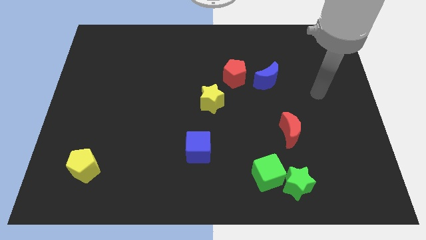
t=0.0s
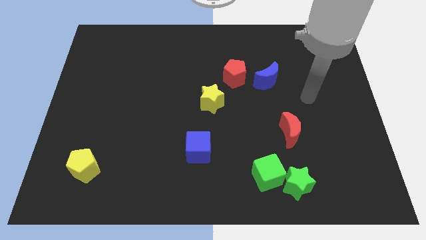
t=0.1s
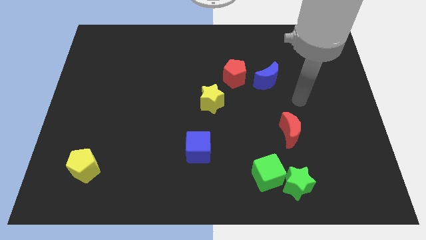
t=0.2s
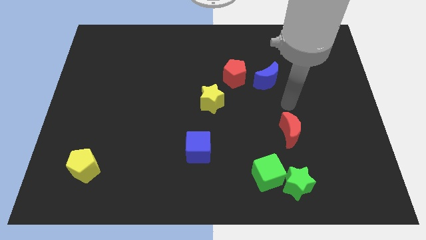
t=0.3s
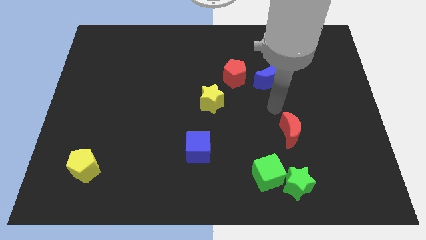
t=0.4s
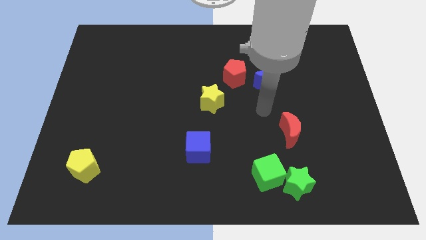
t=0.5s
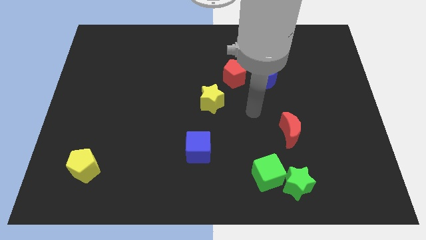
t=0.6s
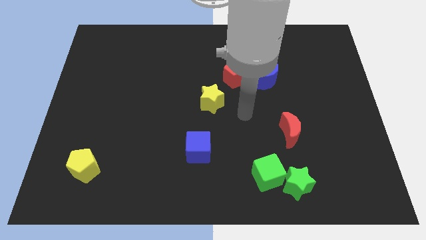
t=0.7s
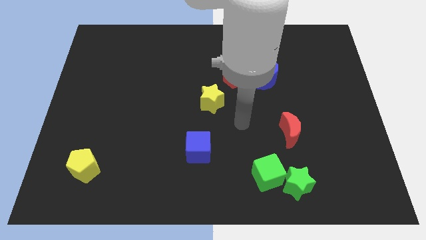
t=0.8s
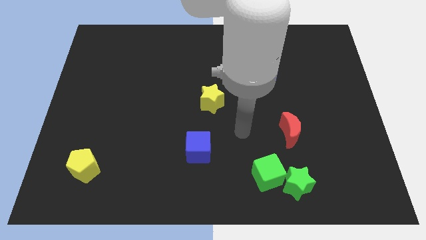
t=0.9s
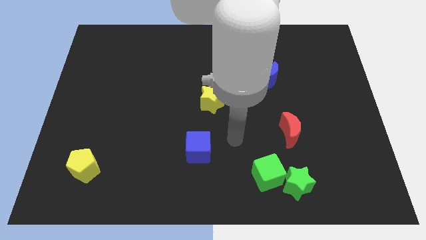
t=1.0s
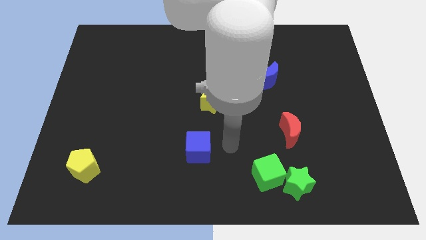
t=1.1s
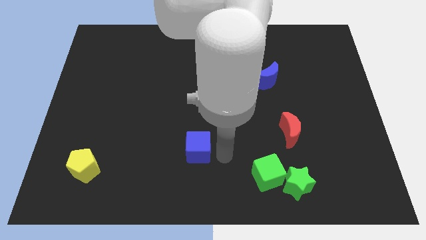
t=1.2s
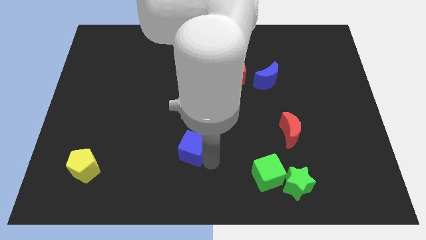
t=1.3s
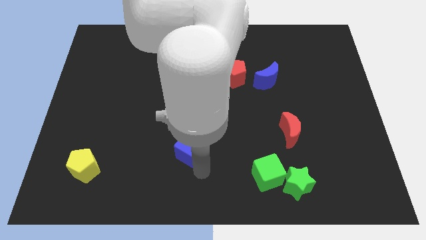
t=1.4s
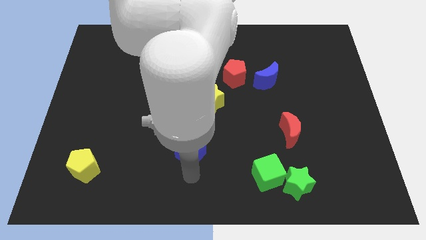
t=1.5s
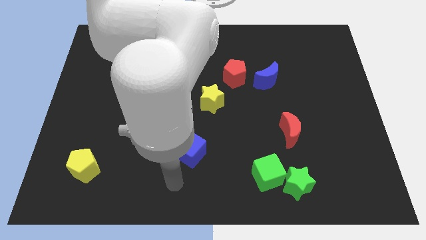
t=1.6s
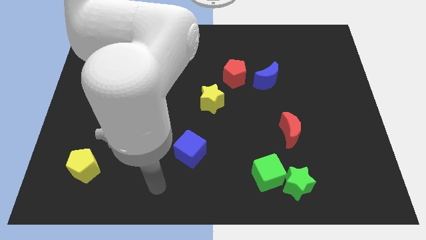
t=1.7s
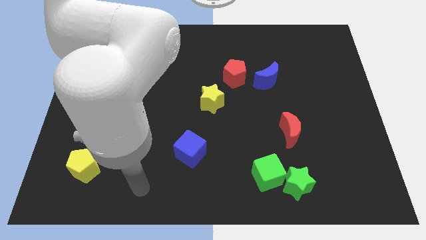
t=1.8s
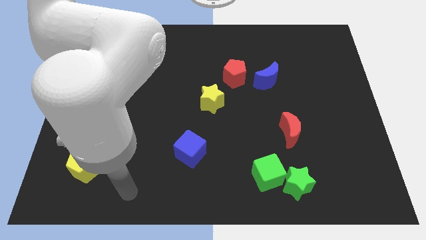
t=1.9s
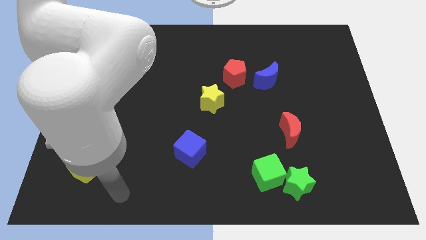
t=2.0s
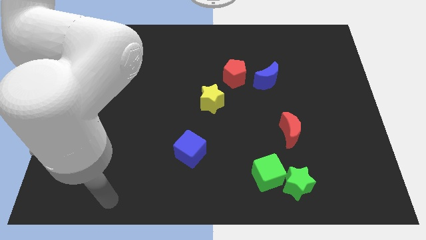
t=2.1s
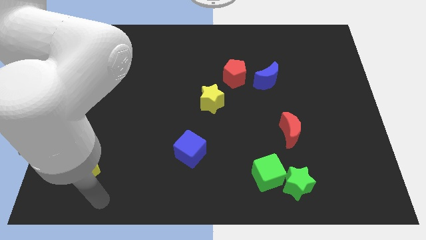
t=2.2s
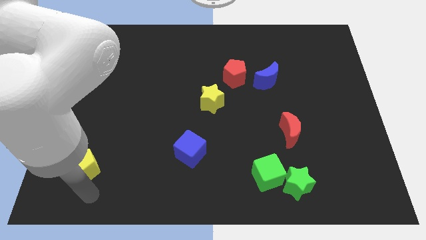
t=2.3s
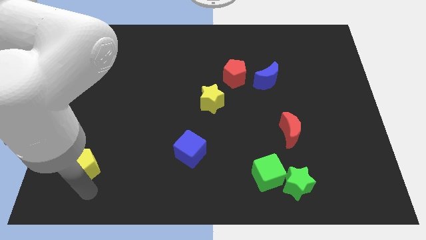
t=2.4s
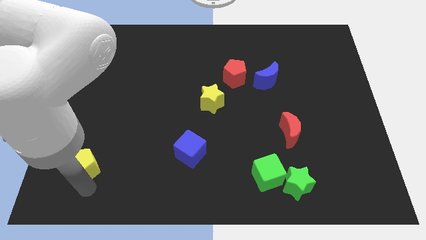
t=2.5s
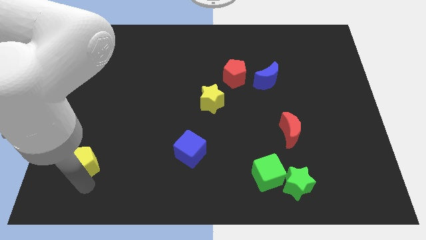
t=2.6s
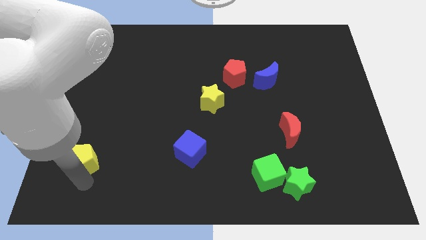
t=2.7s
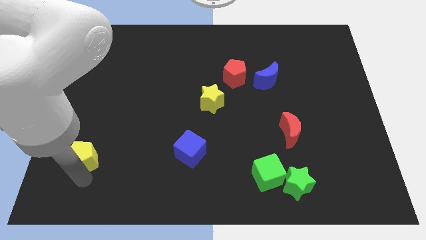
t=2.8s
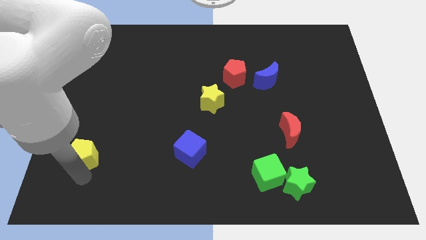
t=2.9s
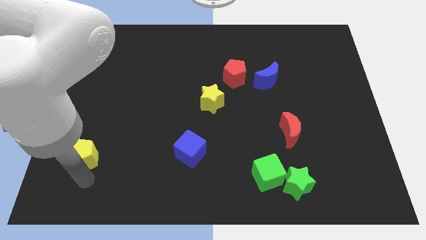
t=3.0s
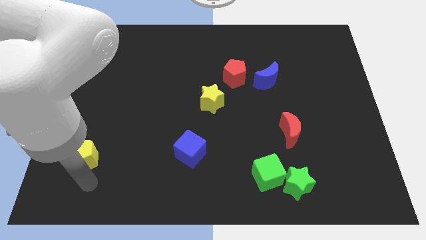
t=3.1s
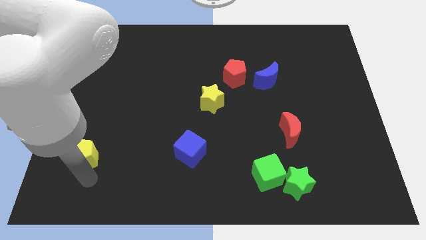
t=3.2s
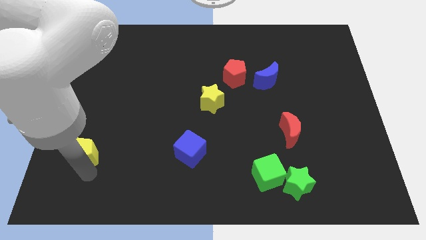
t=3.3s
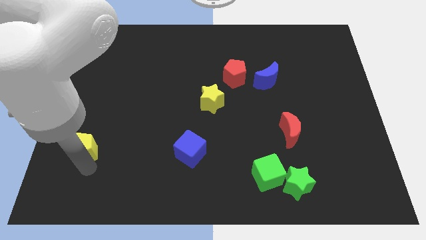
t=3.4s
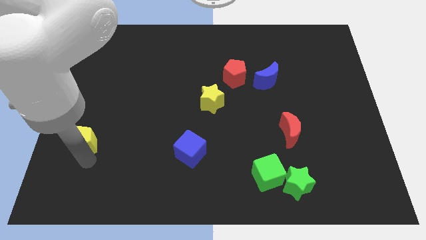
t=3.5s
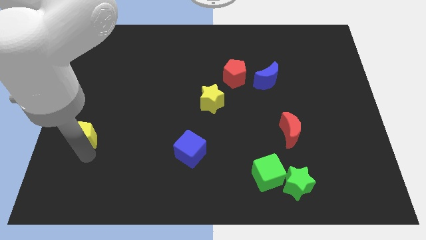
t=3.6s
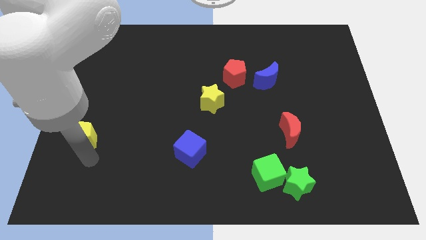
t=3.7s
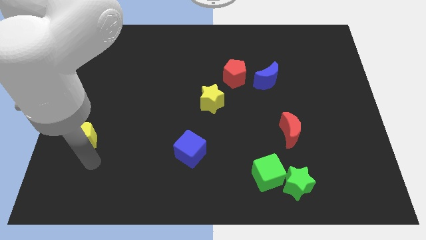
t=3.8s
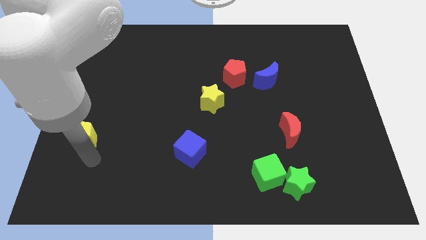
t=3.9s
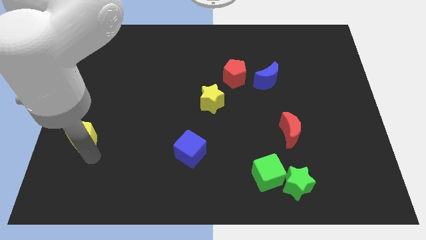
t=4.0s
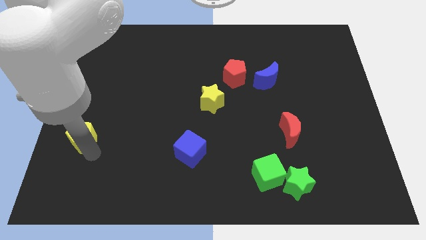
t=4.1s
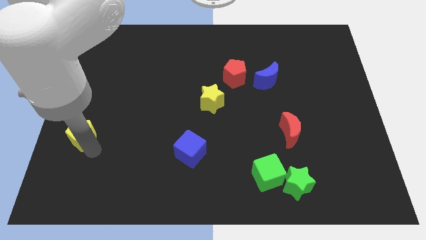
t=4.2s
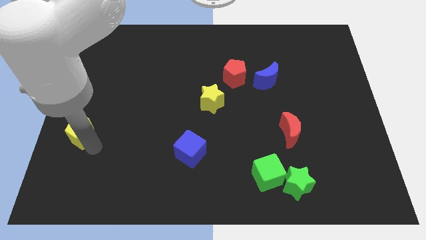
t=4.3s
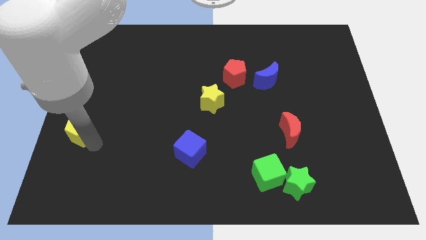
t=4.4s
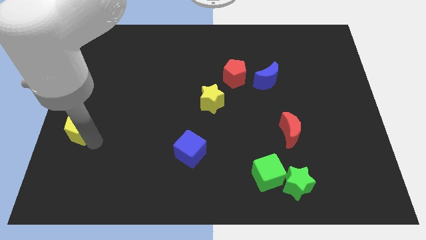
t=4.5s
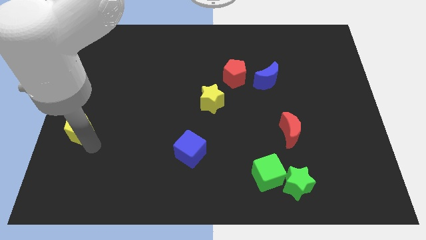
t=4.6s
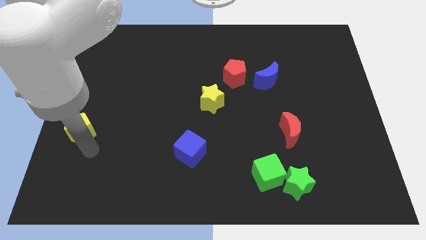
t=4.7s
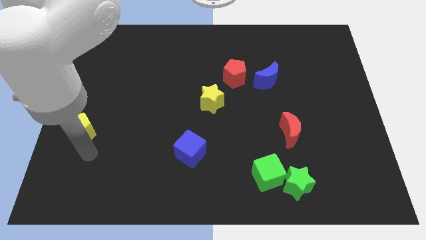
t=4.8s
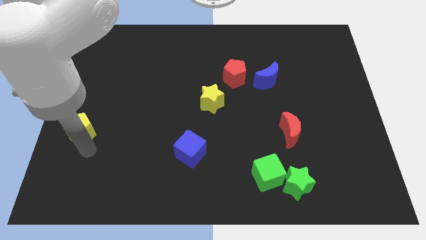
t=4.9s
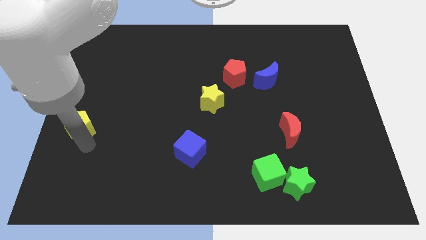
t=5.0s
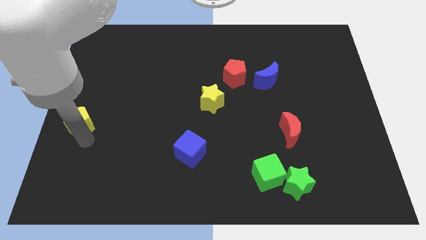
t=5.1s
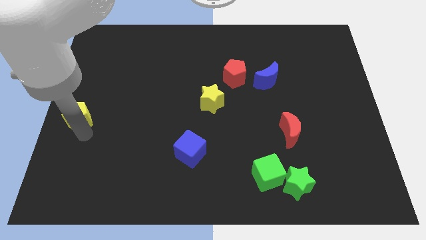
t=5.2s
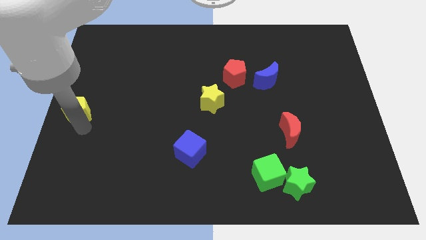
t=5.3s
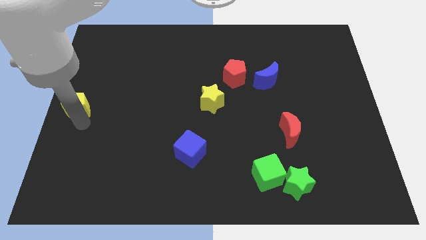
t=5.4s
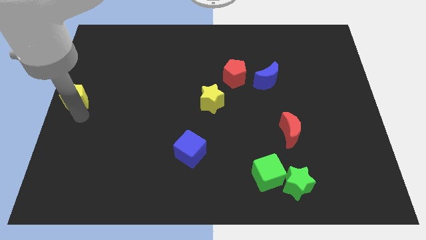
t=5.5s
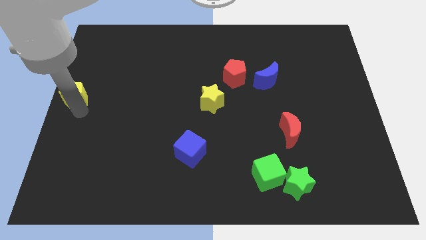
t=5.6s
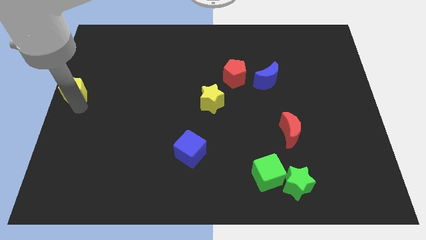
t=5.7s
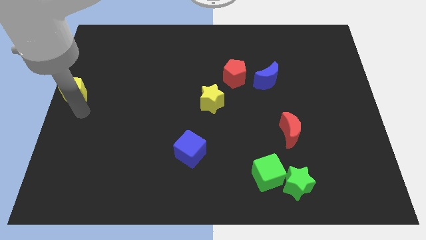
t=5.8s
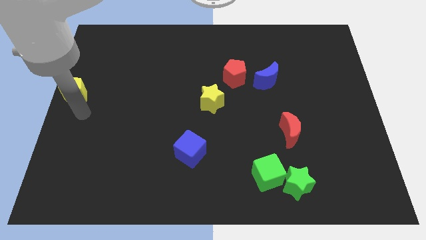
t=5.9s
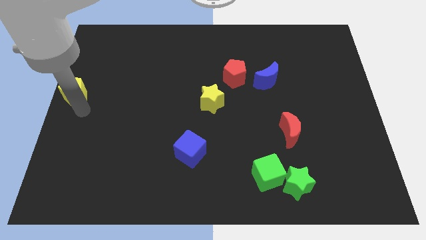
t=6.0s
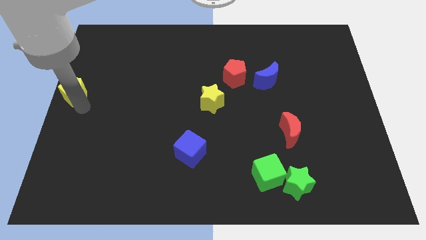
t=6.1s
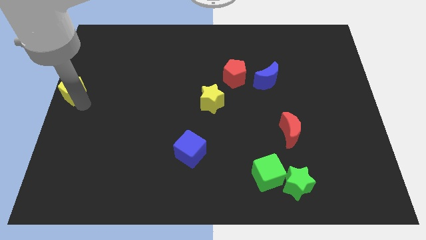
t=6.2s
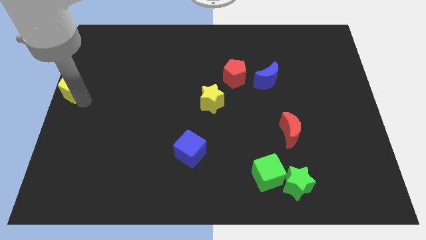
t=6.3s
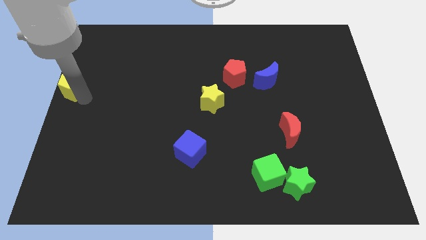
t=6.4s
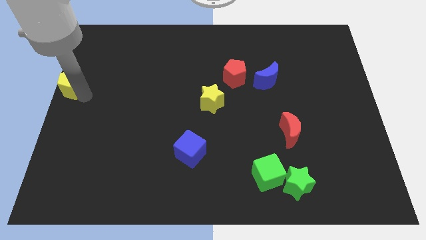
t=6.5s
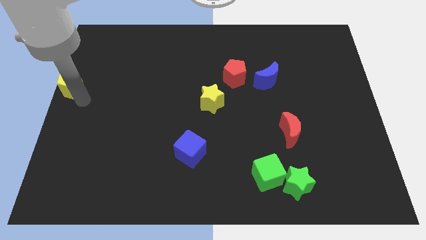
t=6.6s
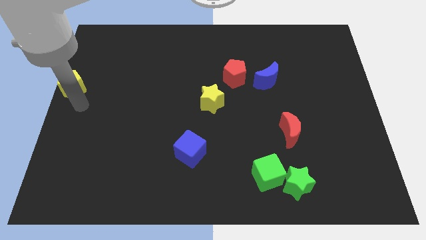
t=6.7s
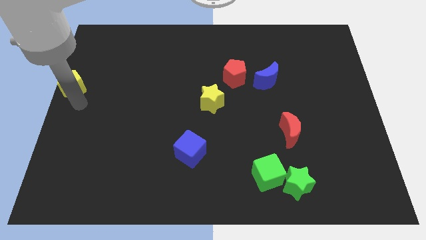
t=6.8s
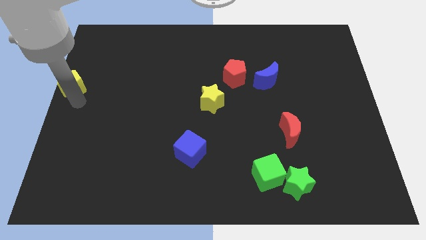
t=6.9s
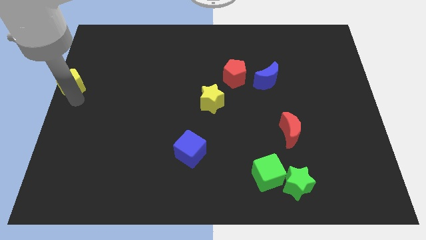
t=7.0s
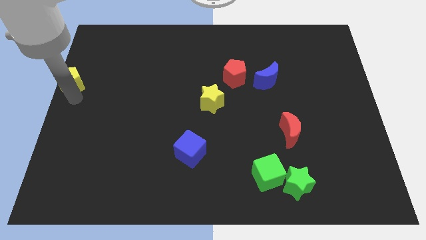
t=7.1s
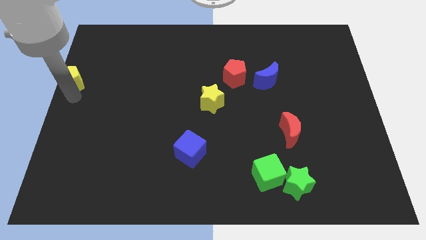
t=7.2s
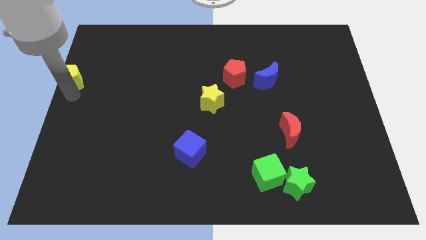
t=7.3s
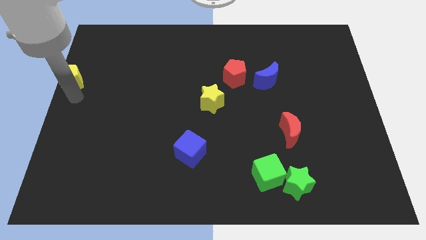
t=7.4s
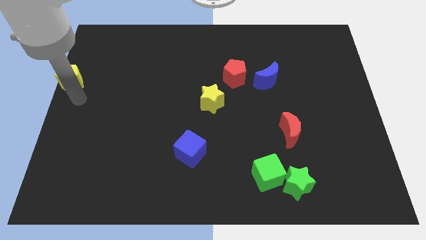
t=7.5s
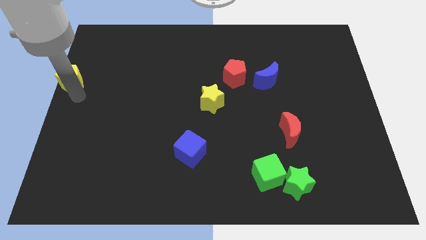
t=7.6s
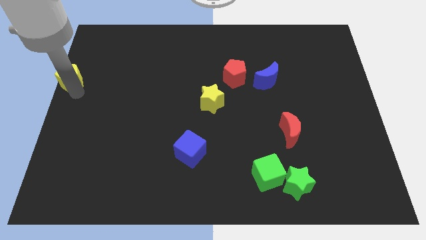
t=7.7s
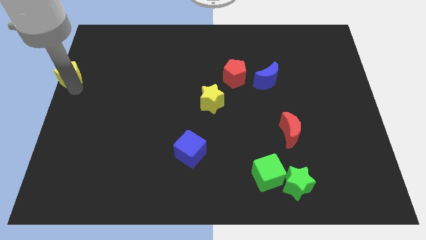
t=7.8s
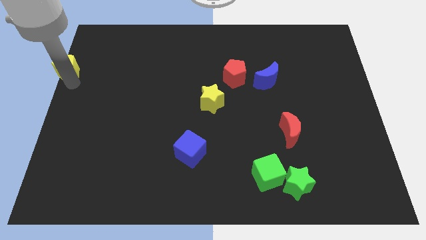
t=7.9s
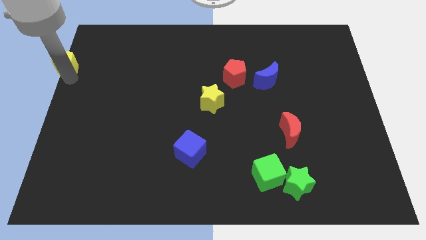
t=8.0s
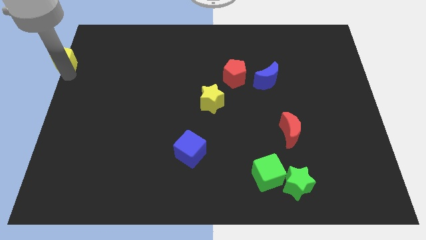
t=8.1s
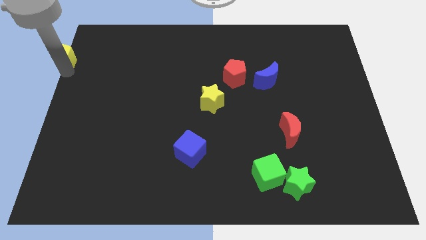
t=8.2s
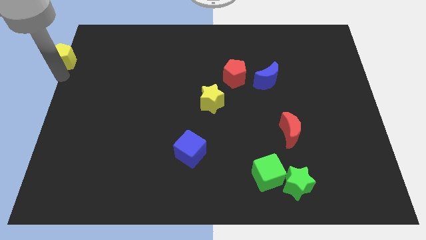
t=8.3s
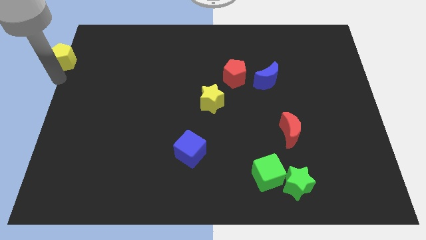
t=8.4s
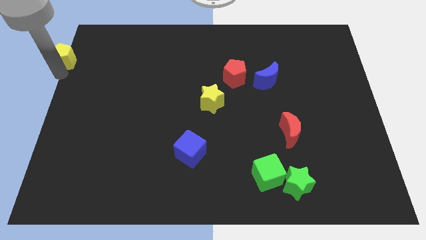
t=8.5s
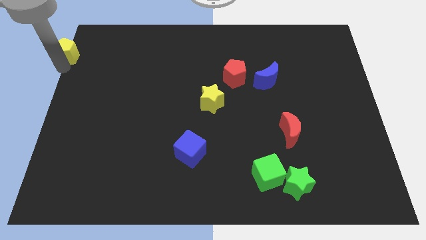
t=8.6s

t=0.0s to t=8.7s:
put the yellow pentagon to the top left of the board
